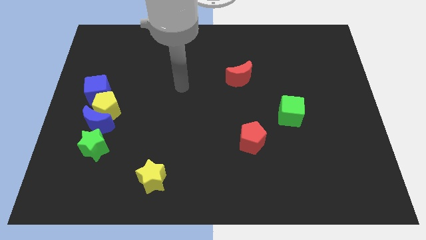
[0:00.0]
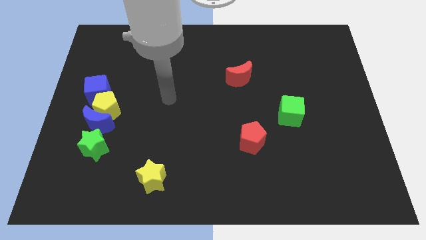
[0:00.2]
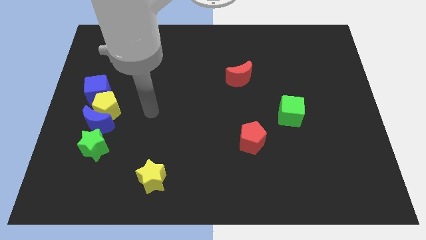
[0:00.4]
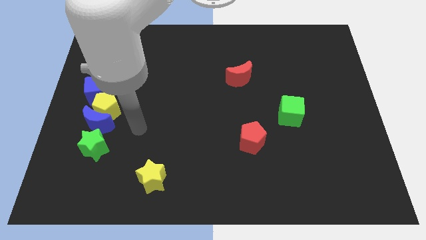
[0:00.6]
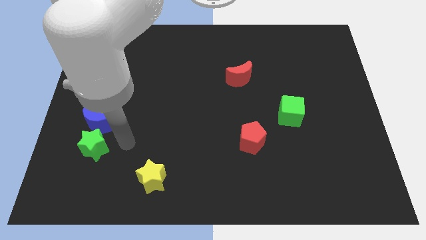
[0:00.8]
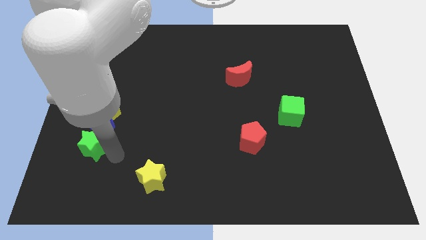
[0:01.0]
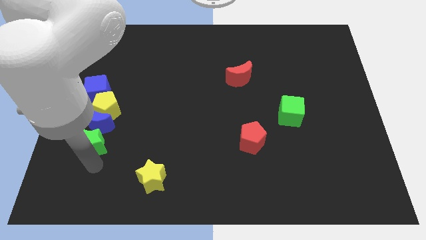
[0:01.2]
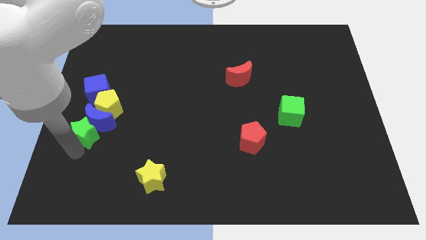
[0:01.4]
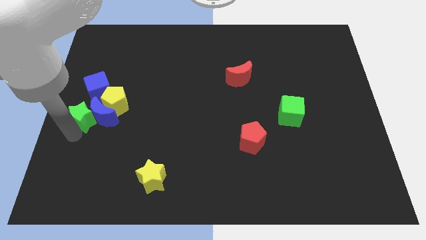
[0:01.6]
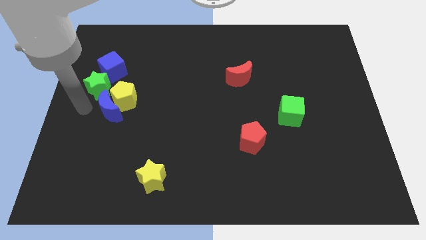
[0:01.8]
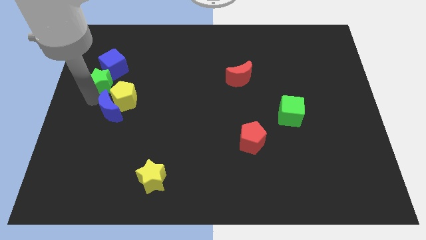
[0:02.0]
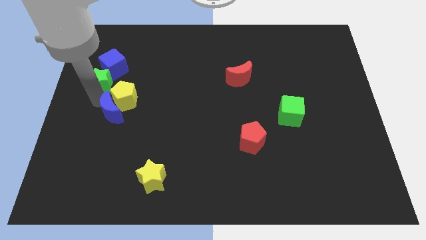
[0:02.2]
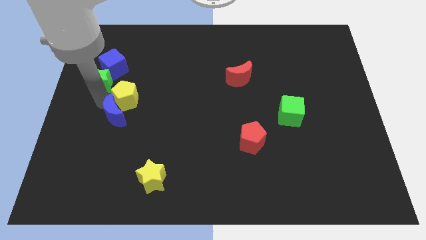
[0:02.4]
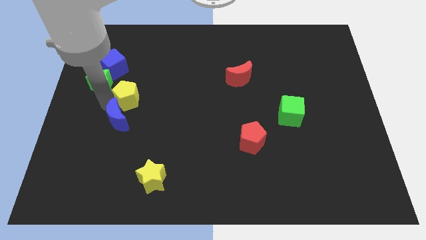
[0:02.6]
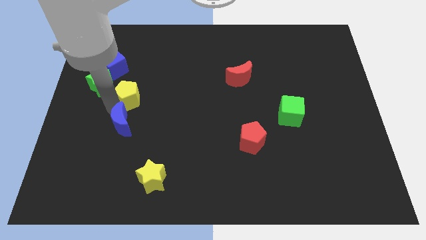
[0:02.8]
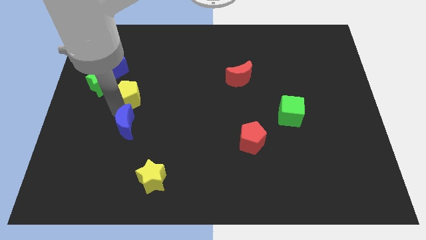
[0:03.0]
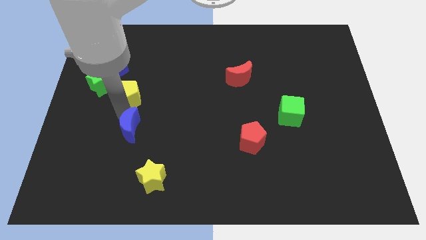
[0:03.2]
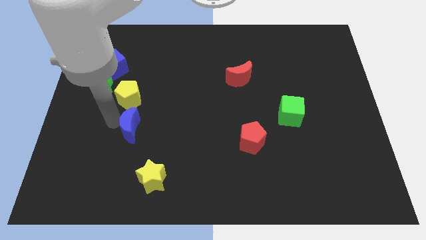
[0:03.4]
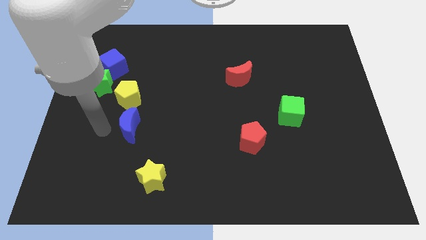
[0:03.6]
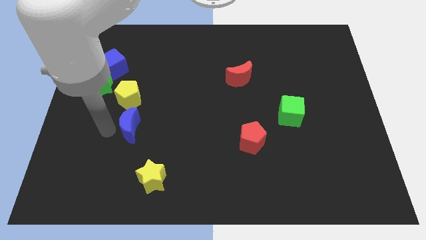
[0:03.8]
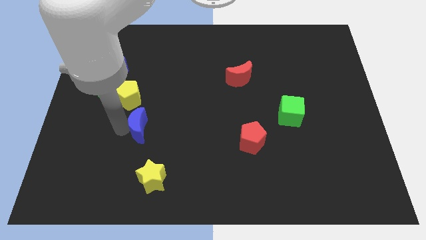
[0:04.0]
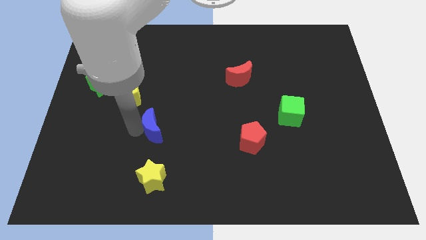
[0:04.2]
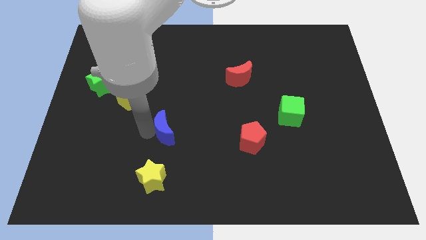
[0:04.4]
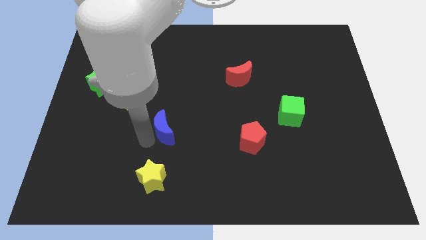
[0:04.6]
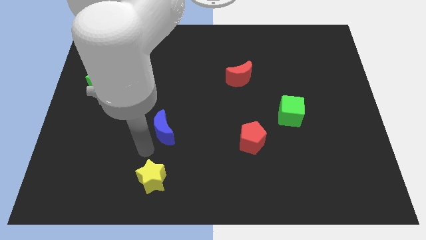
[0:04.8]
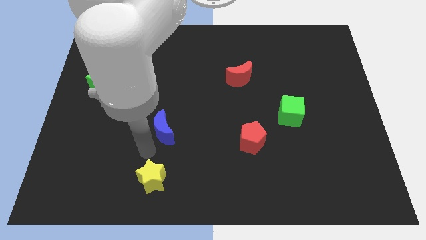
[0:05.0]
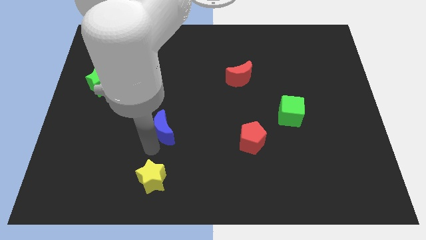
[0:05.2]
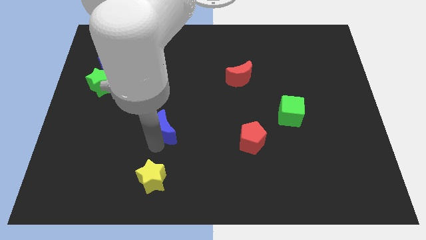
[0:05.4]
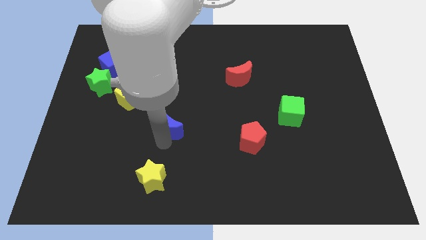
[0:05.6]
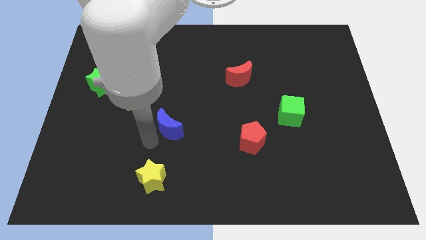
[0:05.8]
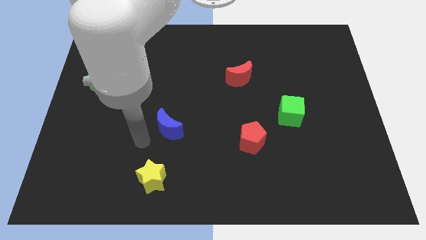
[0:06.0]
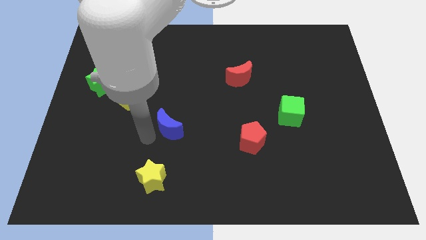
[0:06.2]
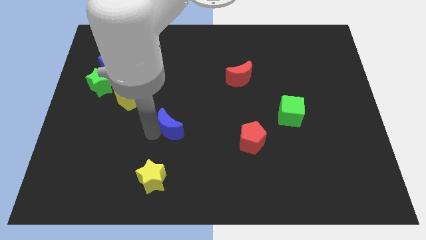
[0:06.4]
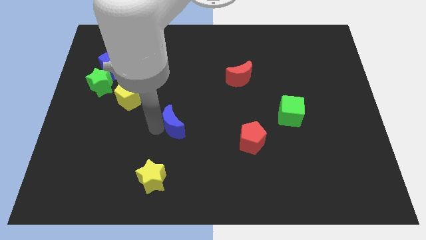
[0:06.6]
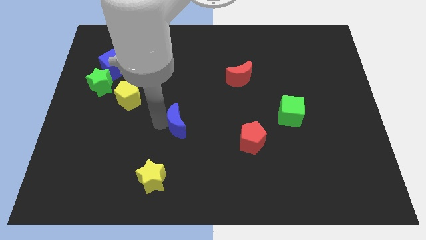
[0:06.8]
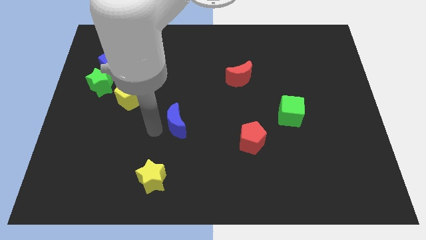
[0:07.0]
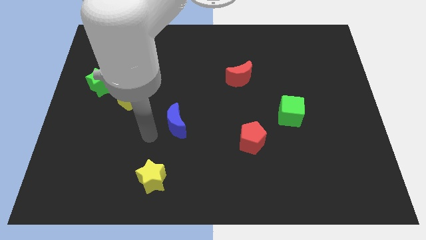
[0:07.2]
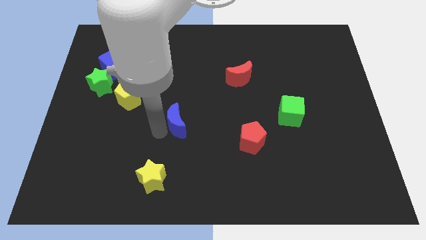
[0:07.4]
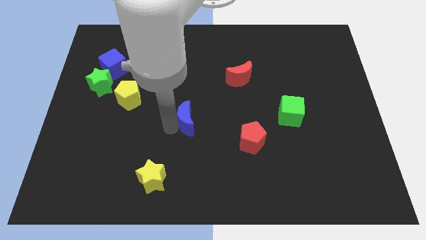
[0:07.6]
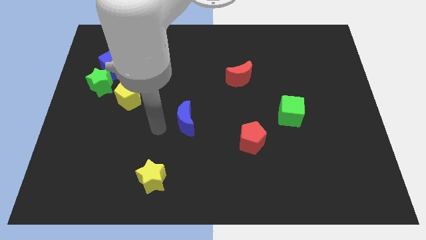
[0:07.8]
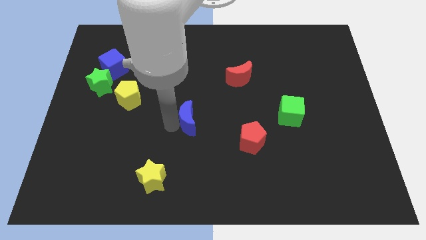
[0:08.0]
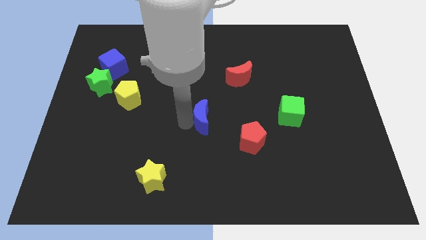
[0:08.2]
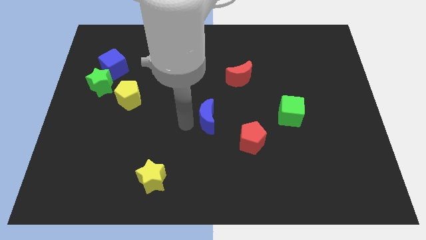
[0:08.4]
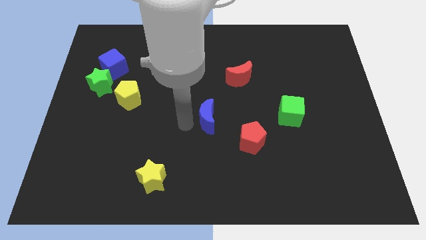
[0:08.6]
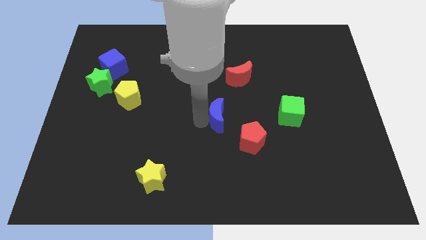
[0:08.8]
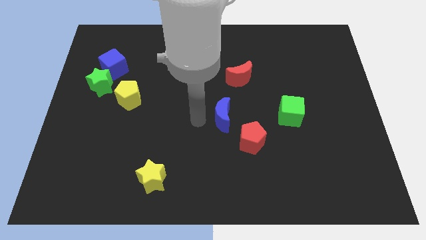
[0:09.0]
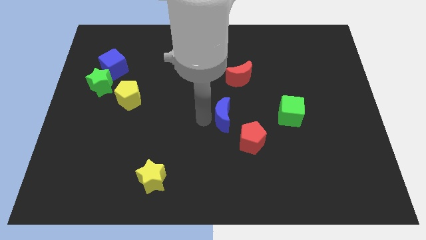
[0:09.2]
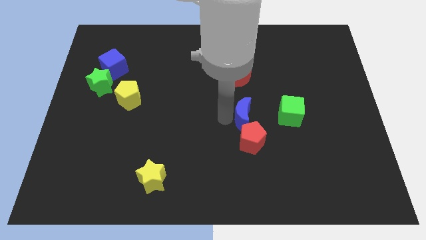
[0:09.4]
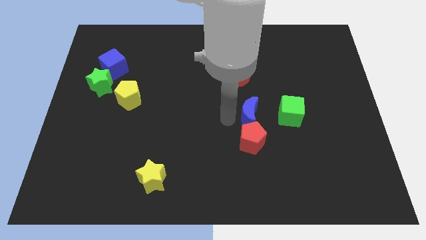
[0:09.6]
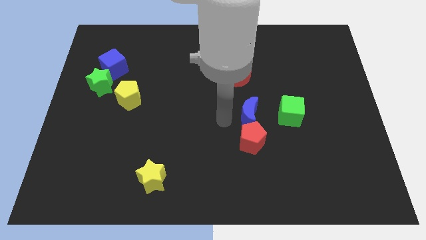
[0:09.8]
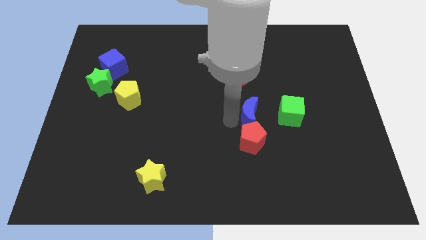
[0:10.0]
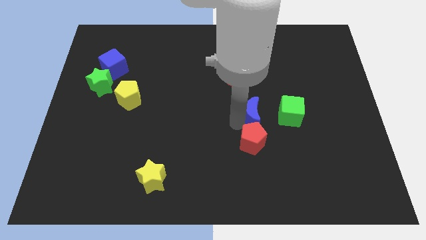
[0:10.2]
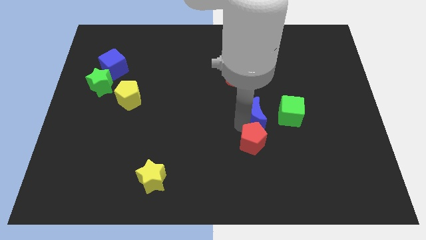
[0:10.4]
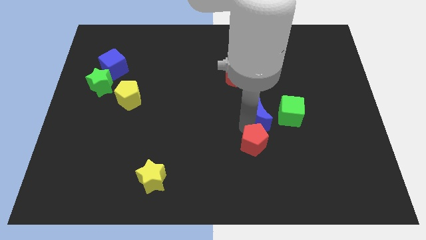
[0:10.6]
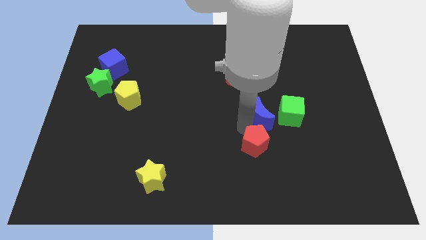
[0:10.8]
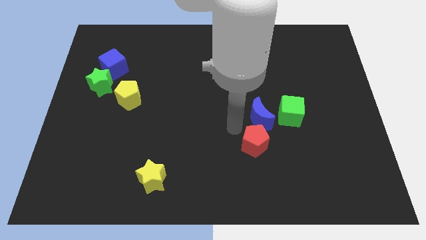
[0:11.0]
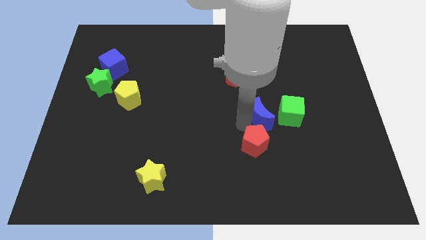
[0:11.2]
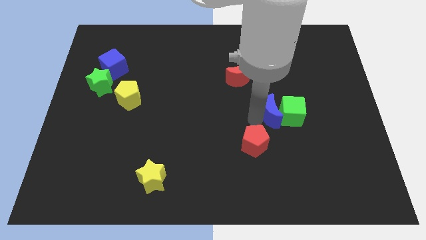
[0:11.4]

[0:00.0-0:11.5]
put the blue moon to the green cube
